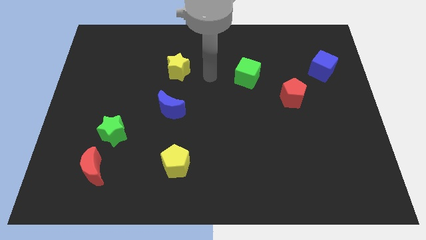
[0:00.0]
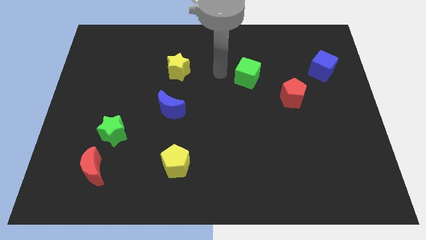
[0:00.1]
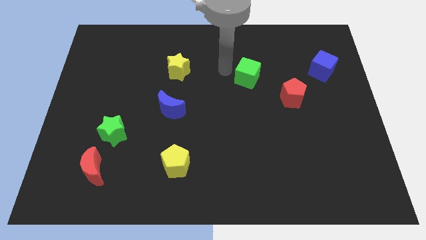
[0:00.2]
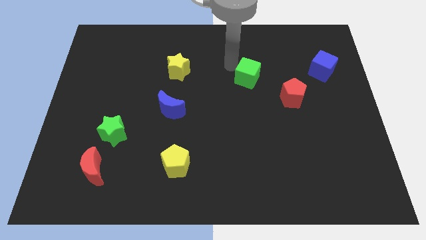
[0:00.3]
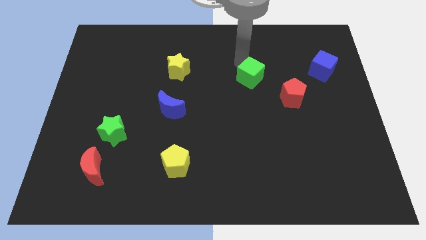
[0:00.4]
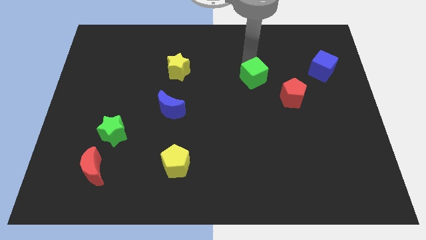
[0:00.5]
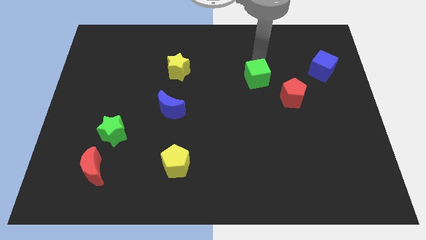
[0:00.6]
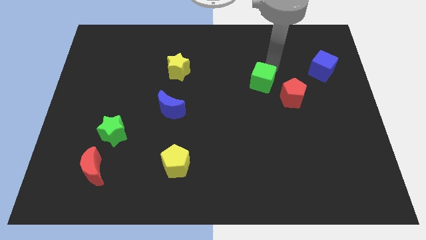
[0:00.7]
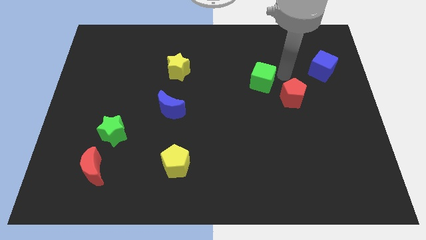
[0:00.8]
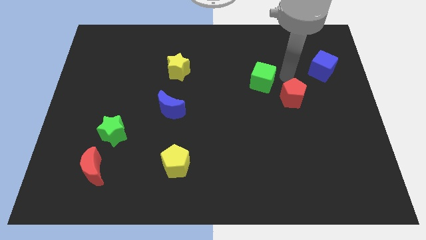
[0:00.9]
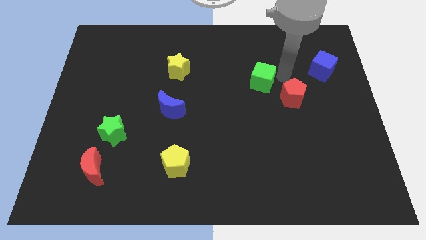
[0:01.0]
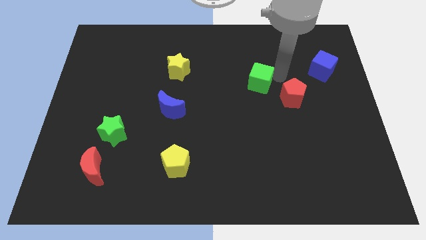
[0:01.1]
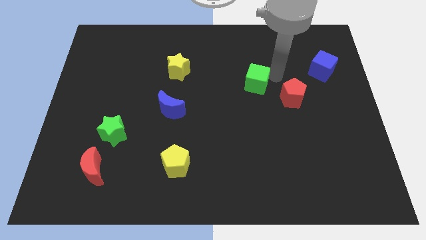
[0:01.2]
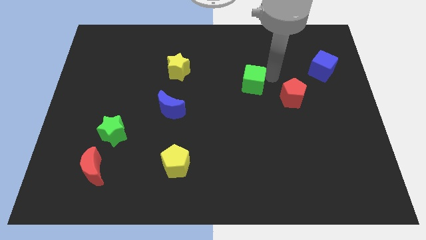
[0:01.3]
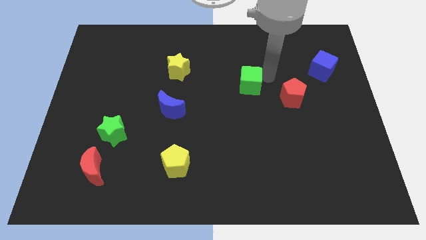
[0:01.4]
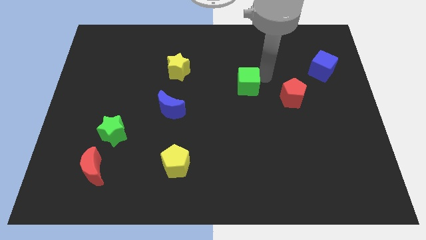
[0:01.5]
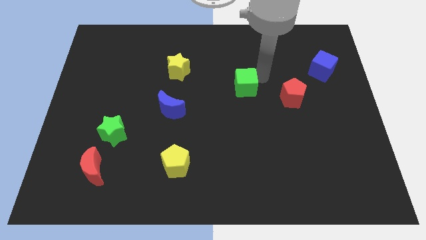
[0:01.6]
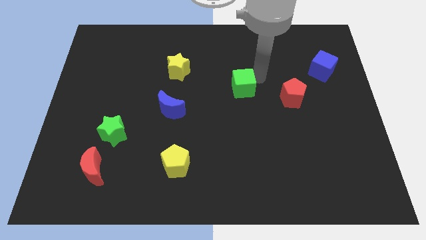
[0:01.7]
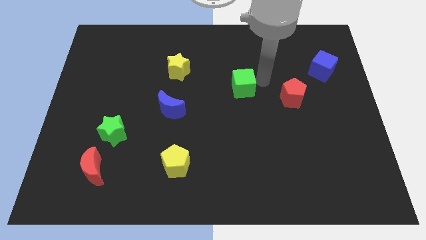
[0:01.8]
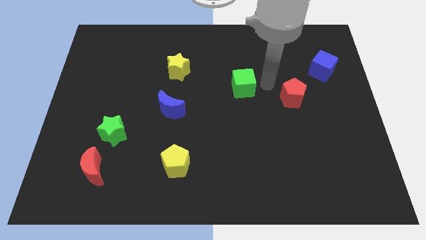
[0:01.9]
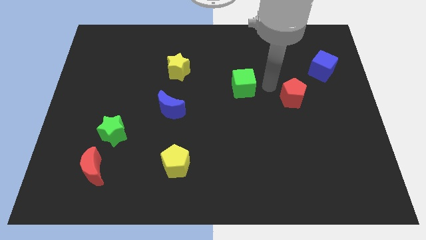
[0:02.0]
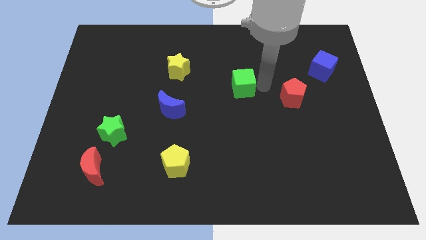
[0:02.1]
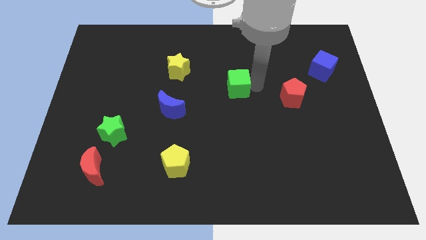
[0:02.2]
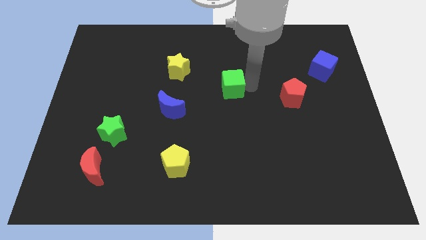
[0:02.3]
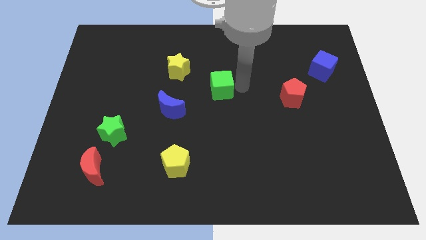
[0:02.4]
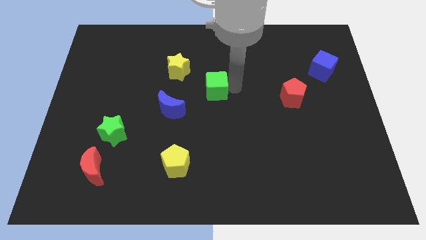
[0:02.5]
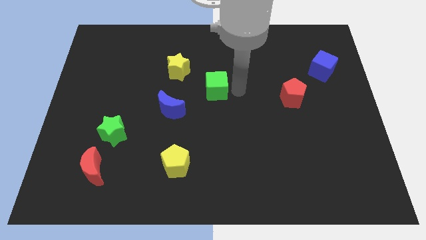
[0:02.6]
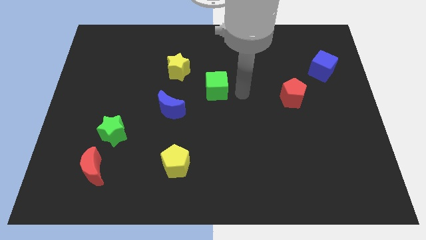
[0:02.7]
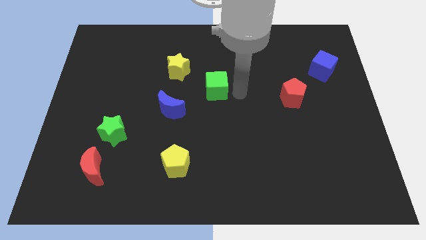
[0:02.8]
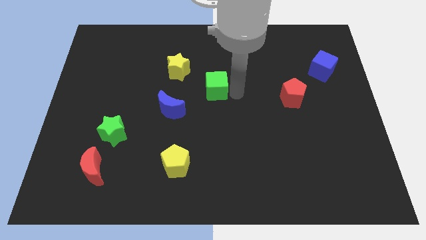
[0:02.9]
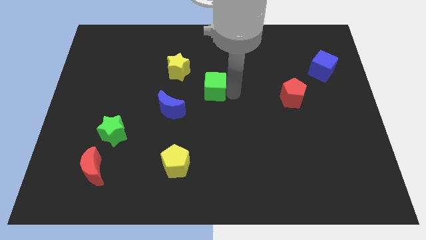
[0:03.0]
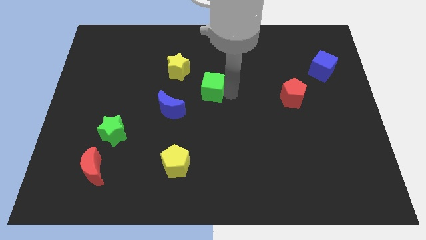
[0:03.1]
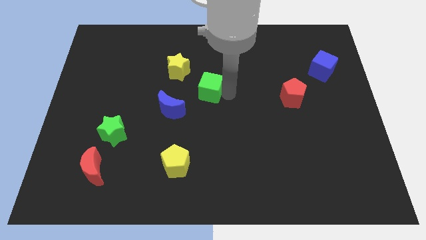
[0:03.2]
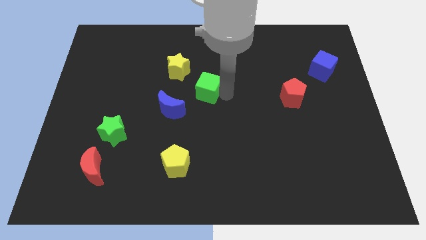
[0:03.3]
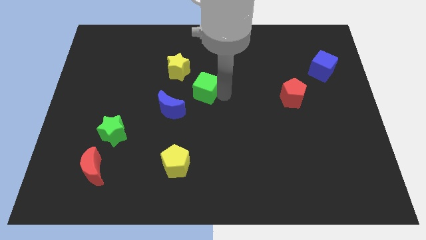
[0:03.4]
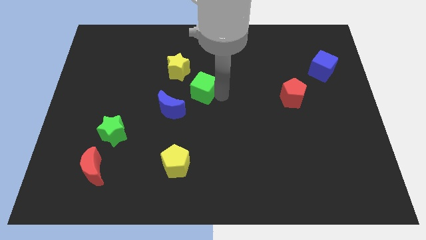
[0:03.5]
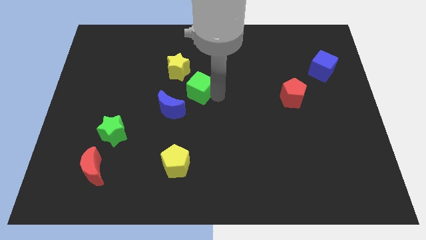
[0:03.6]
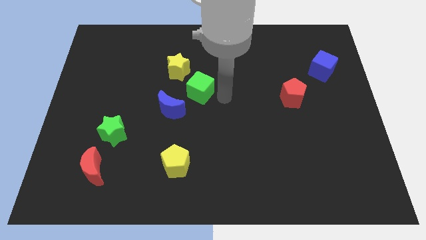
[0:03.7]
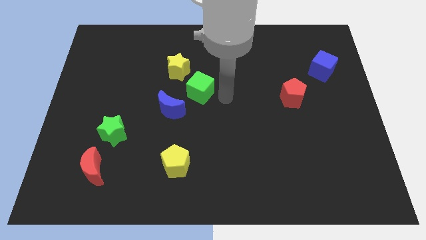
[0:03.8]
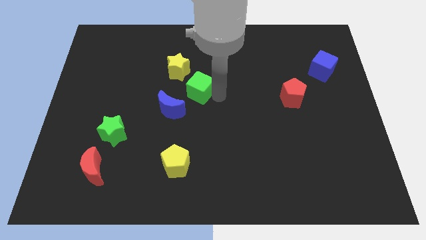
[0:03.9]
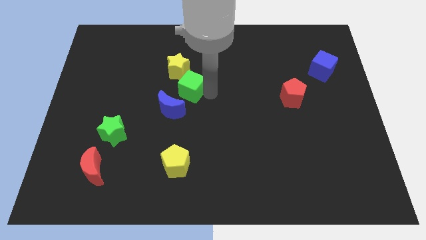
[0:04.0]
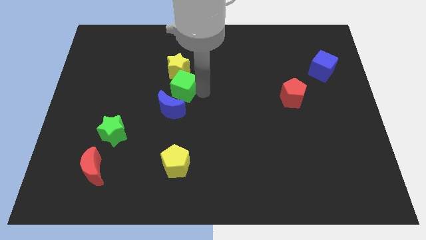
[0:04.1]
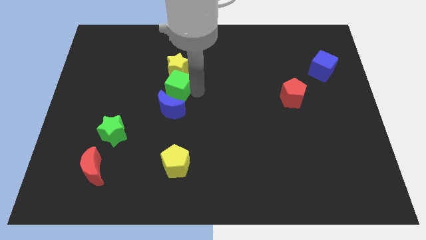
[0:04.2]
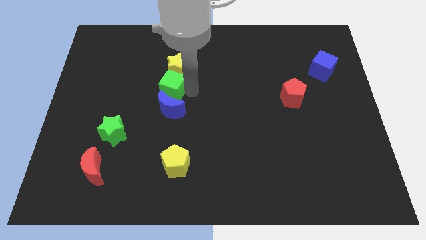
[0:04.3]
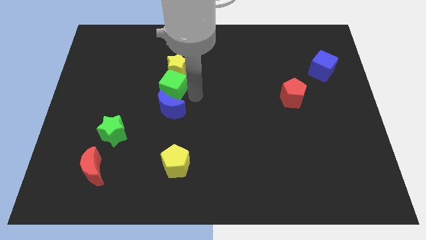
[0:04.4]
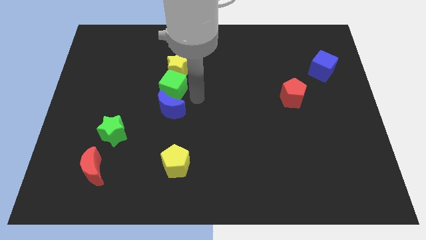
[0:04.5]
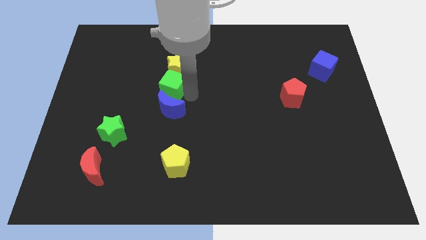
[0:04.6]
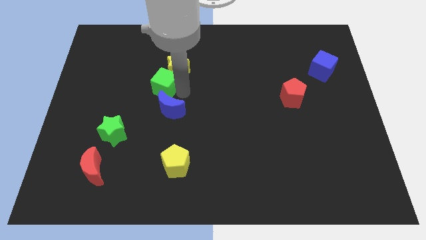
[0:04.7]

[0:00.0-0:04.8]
push the green cube to the left

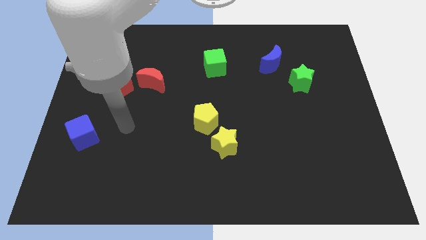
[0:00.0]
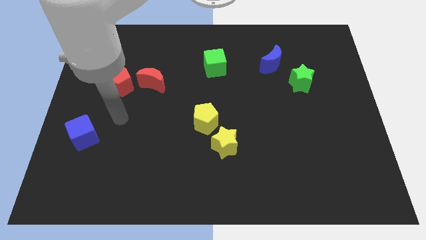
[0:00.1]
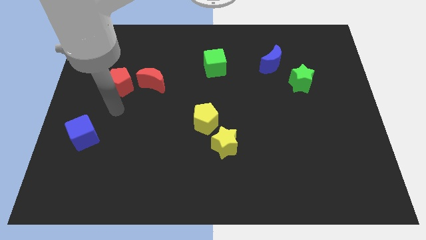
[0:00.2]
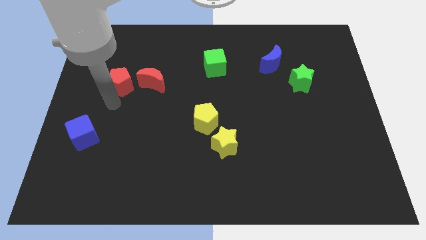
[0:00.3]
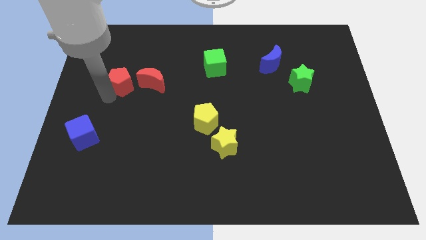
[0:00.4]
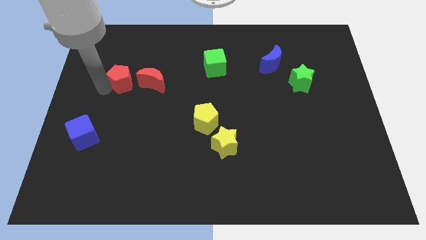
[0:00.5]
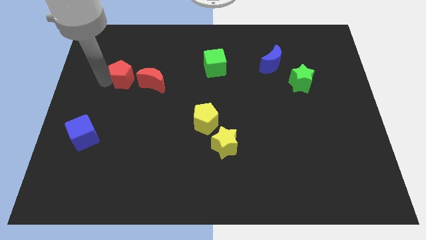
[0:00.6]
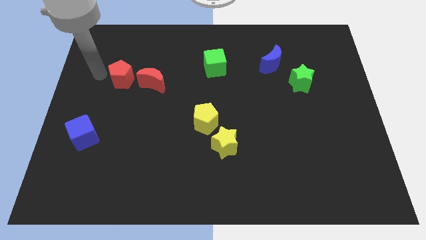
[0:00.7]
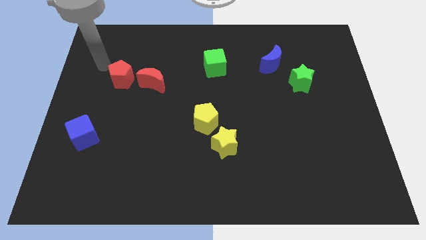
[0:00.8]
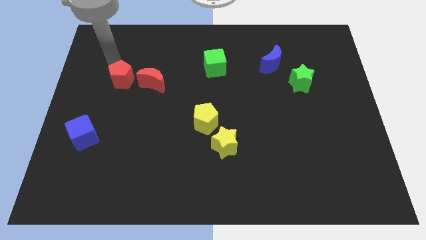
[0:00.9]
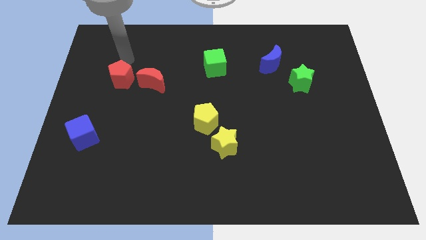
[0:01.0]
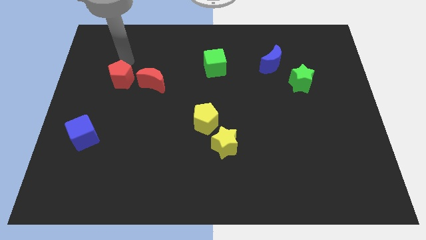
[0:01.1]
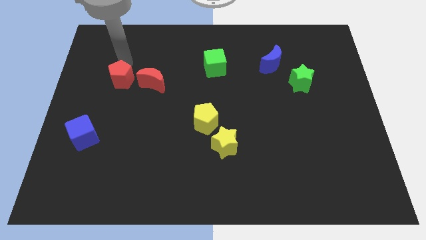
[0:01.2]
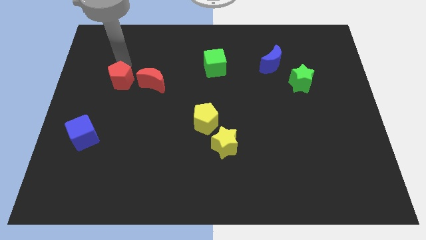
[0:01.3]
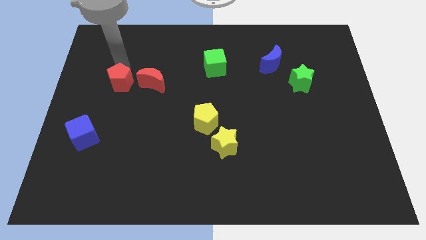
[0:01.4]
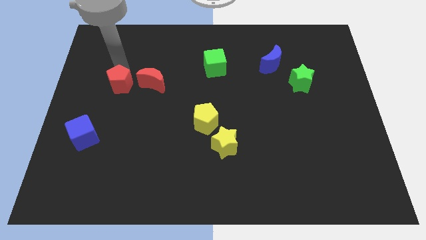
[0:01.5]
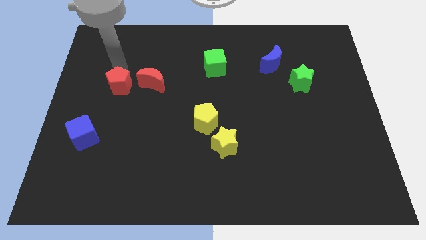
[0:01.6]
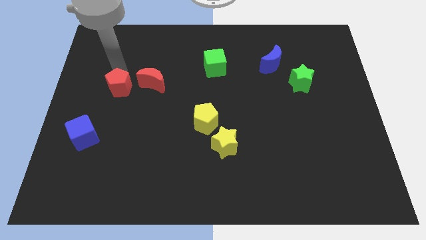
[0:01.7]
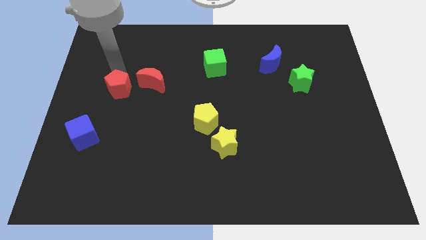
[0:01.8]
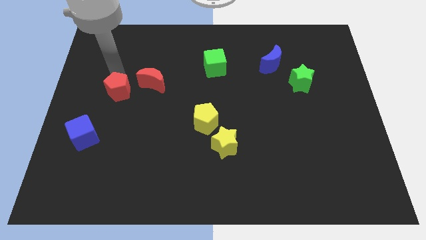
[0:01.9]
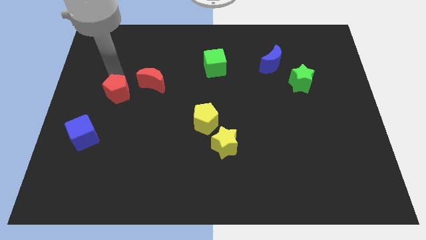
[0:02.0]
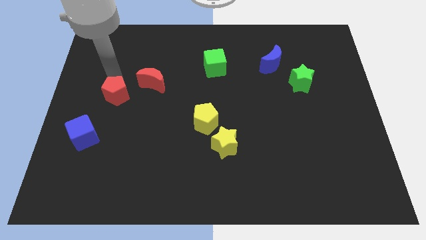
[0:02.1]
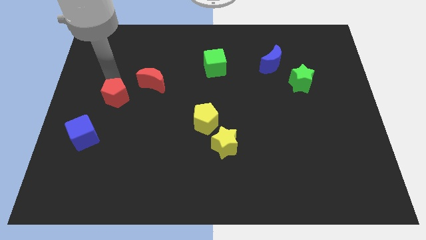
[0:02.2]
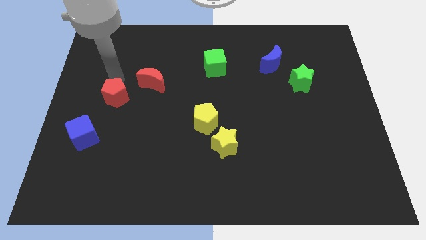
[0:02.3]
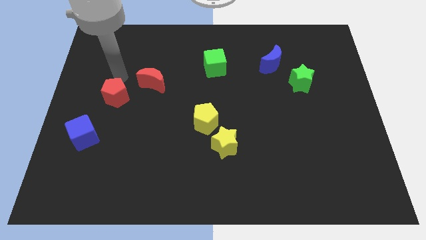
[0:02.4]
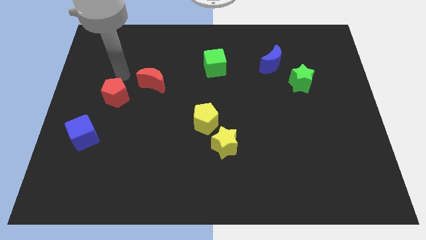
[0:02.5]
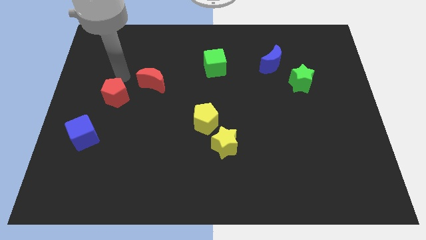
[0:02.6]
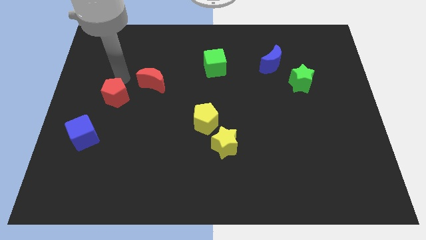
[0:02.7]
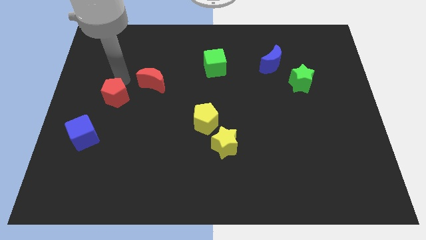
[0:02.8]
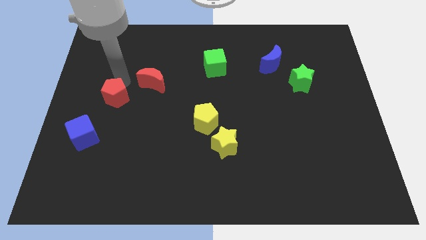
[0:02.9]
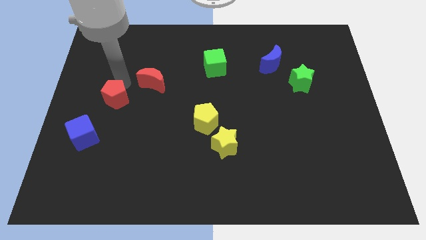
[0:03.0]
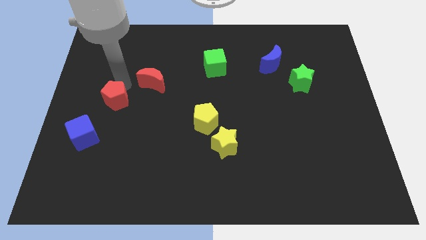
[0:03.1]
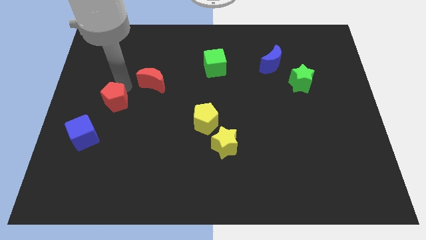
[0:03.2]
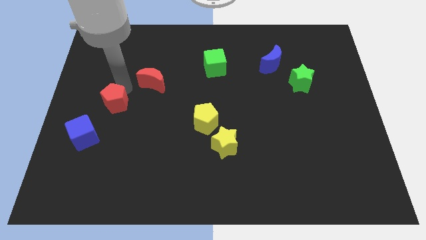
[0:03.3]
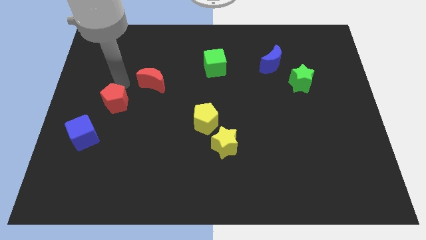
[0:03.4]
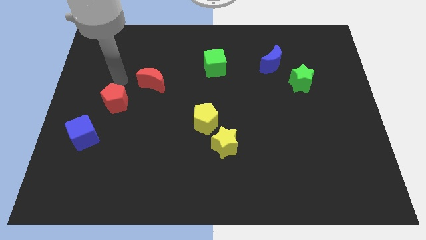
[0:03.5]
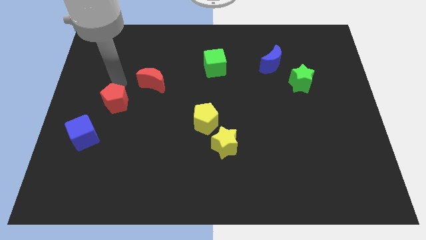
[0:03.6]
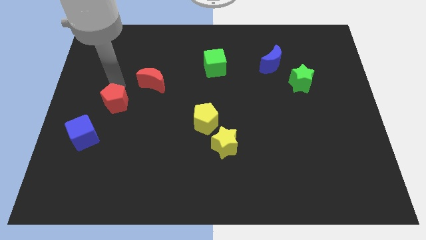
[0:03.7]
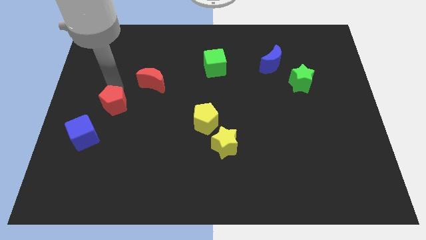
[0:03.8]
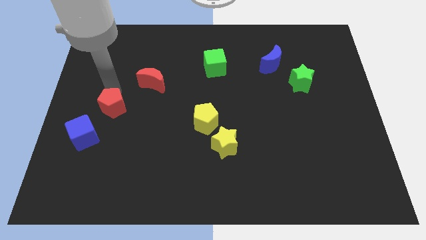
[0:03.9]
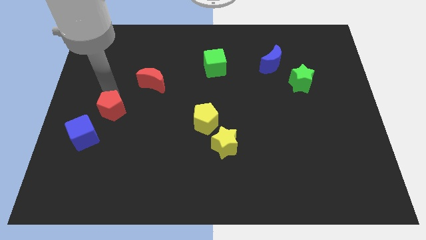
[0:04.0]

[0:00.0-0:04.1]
push the red pentagon downwards a little
